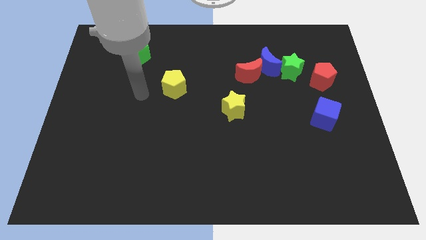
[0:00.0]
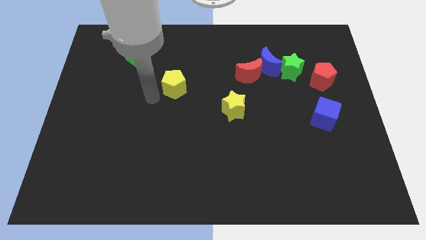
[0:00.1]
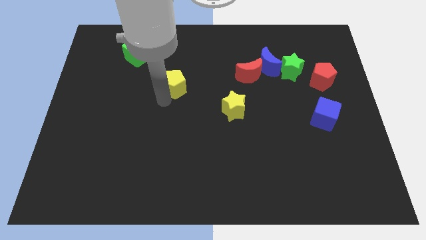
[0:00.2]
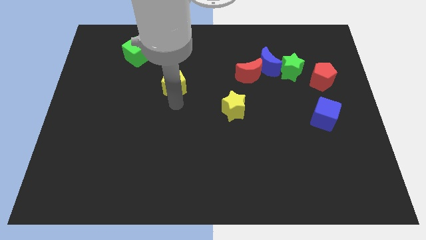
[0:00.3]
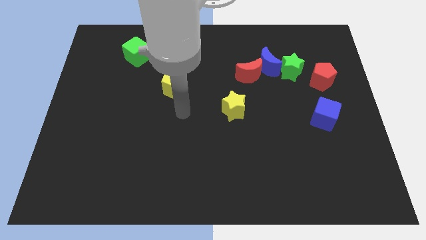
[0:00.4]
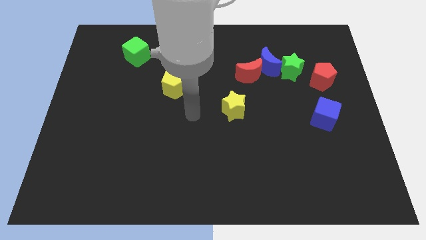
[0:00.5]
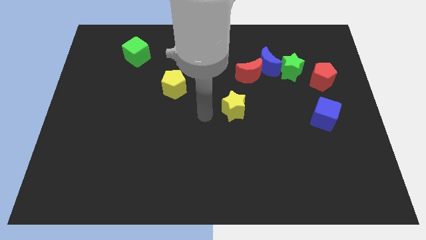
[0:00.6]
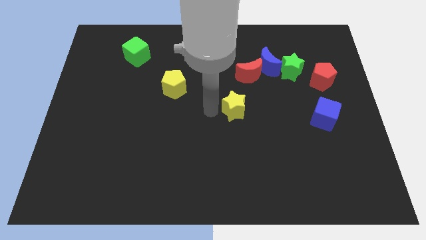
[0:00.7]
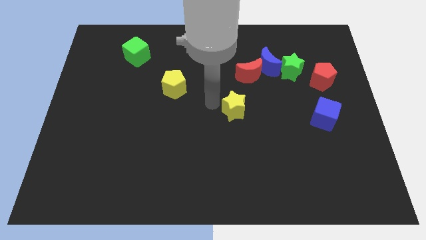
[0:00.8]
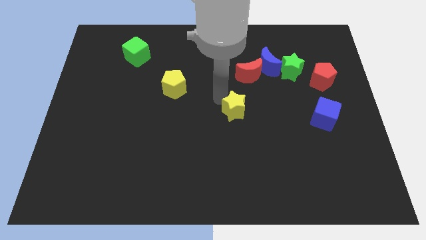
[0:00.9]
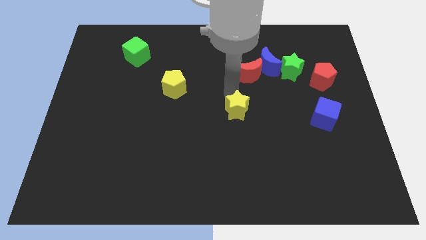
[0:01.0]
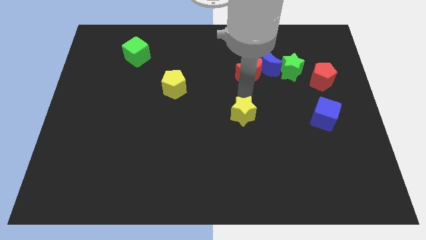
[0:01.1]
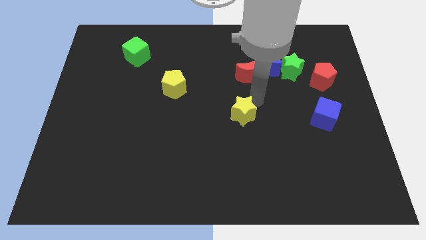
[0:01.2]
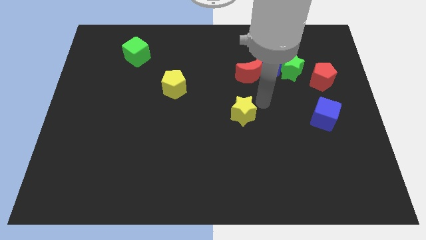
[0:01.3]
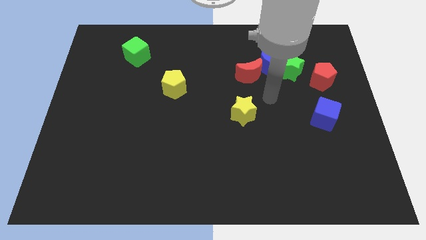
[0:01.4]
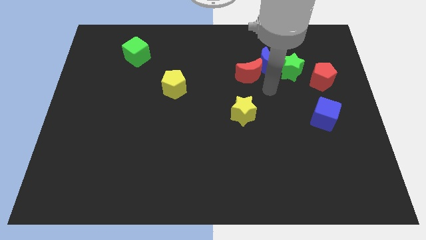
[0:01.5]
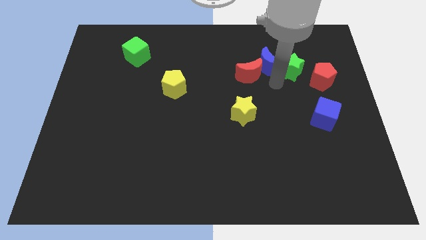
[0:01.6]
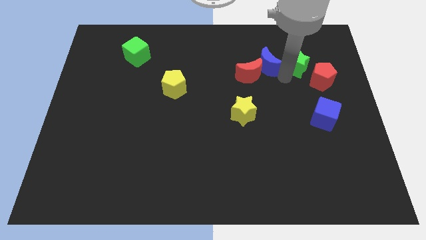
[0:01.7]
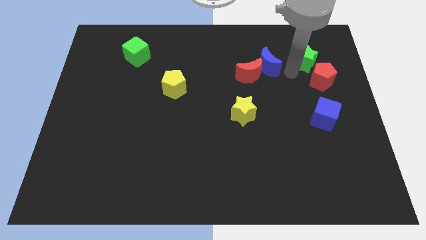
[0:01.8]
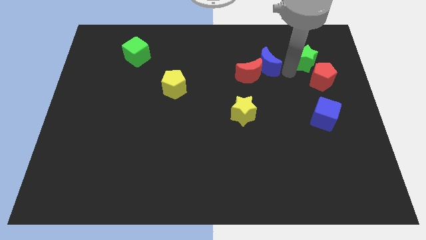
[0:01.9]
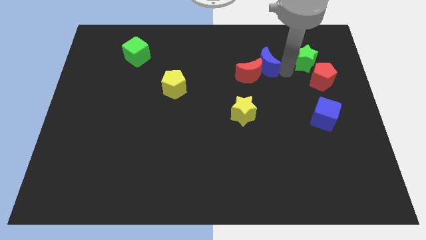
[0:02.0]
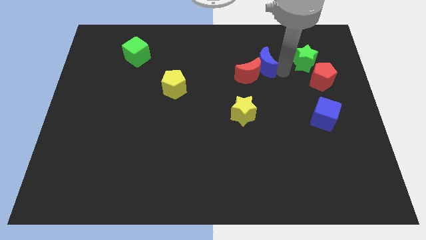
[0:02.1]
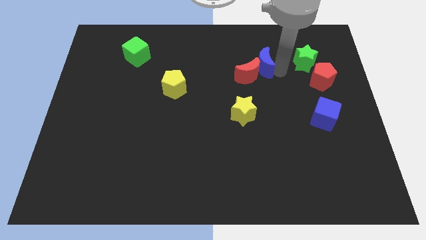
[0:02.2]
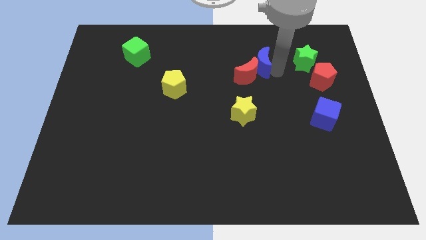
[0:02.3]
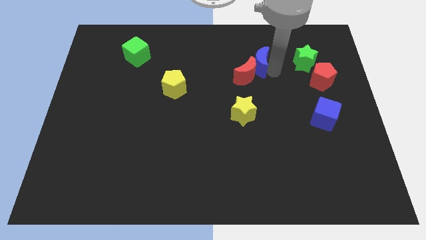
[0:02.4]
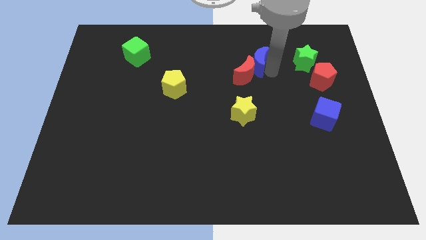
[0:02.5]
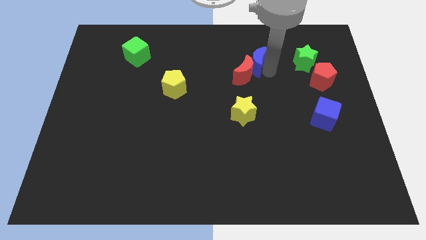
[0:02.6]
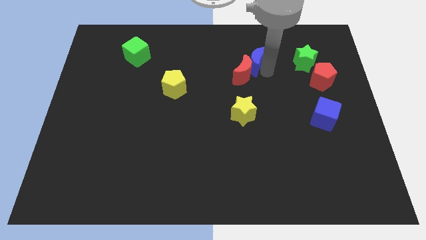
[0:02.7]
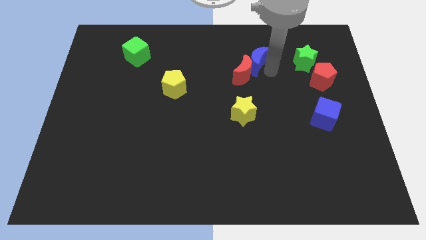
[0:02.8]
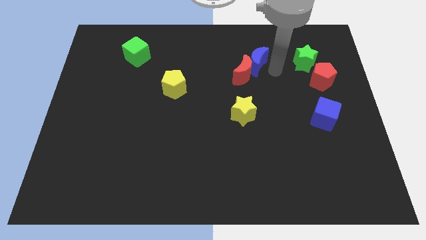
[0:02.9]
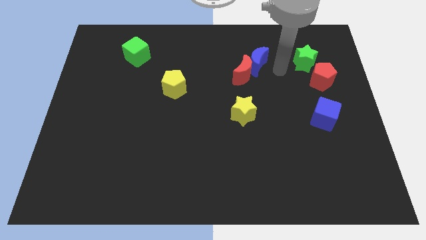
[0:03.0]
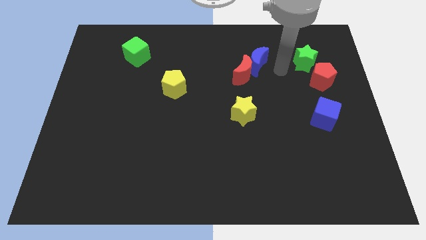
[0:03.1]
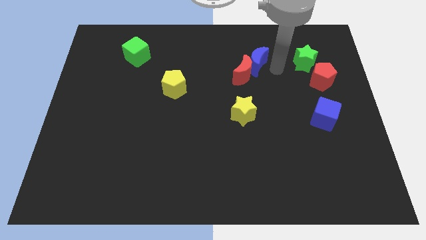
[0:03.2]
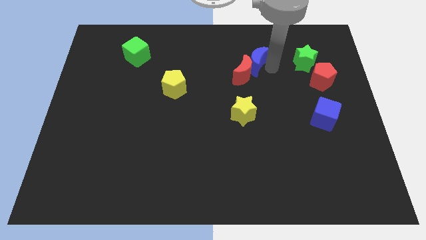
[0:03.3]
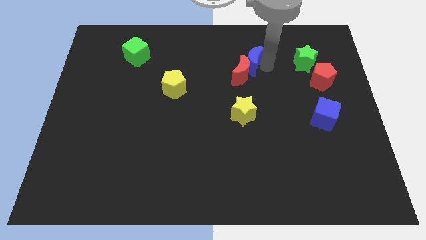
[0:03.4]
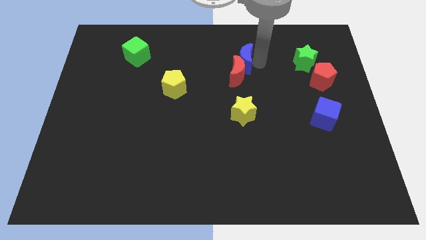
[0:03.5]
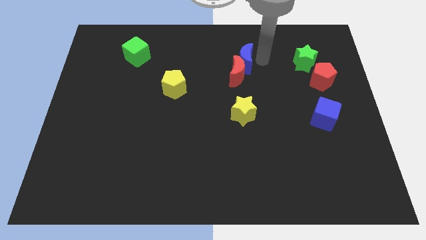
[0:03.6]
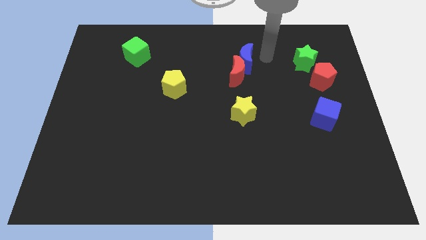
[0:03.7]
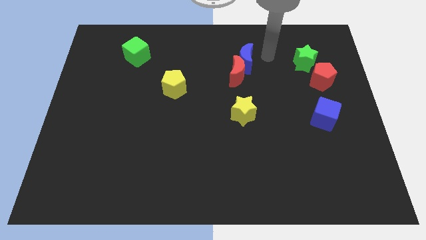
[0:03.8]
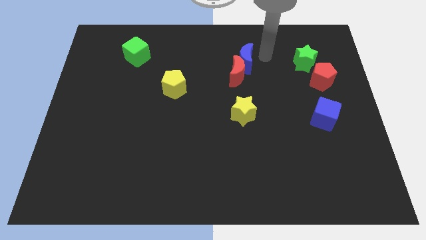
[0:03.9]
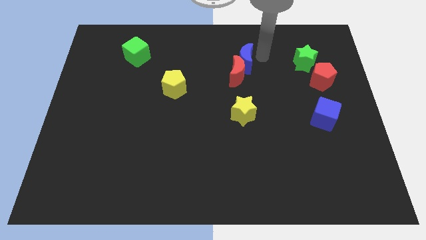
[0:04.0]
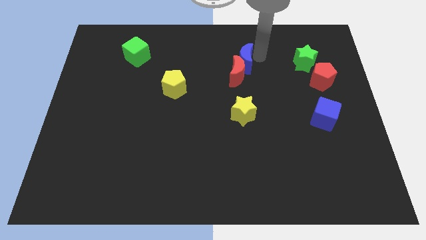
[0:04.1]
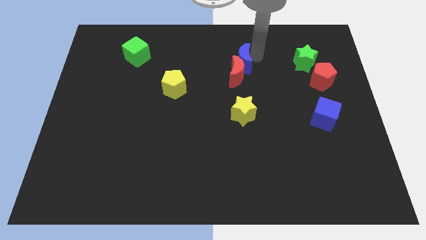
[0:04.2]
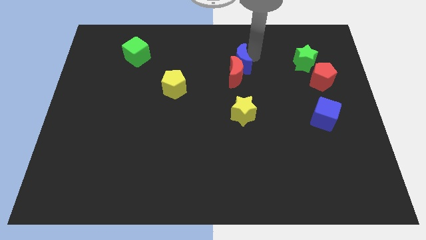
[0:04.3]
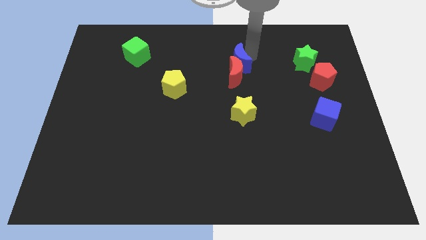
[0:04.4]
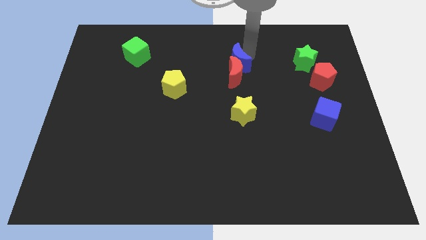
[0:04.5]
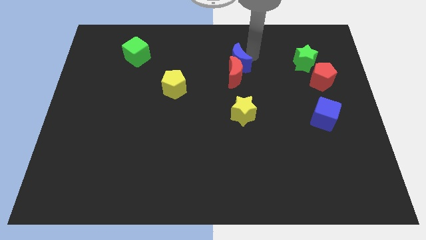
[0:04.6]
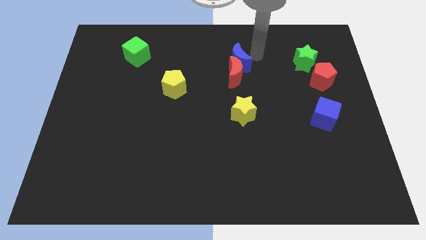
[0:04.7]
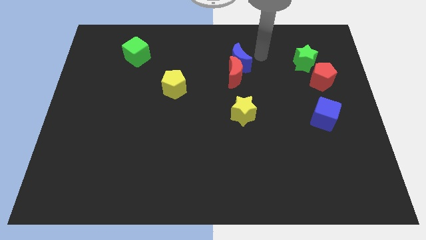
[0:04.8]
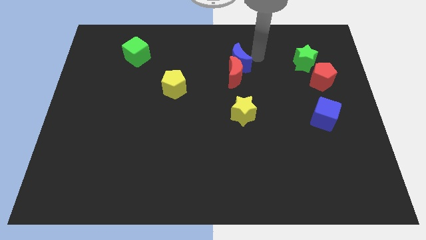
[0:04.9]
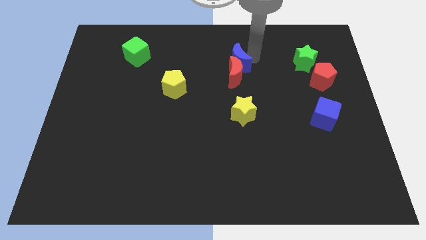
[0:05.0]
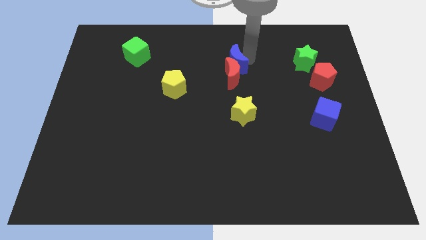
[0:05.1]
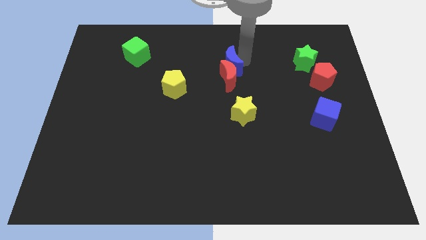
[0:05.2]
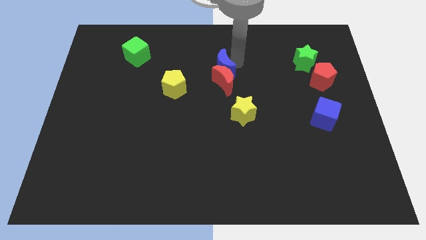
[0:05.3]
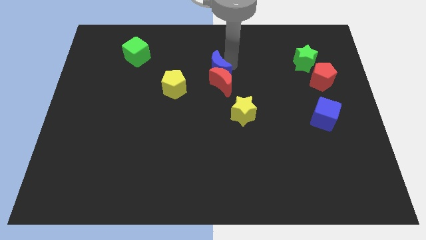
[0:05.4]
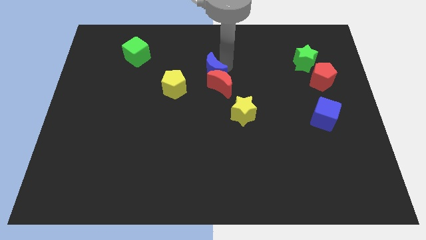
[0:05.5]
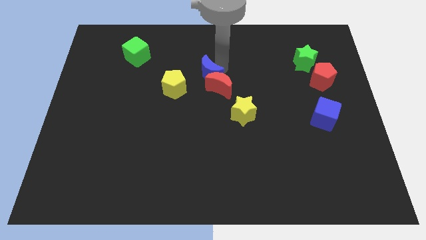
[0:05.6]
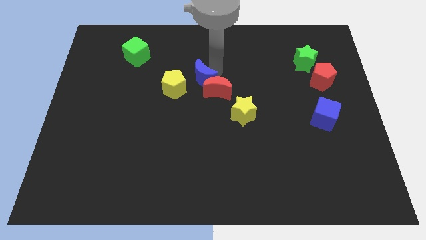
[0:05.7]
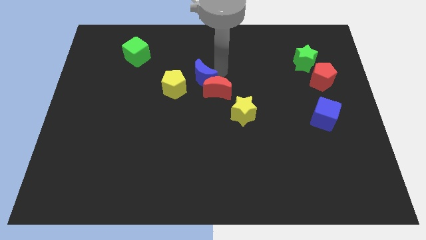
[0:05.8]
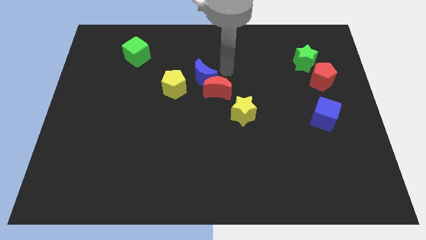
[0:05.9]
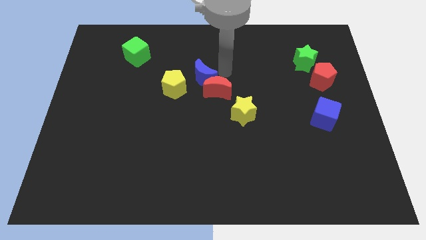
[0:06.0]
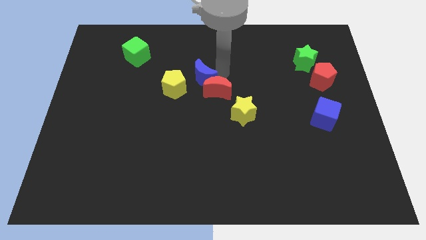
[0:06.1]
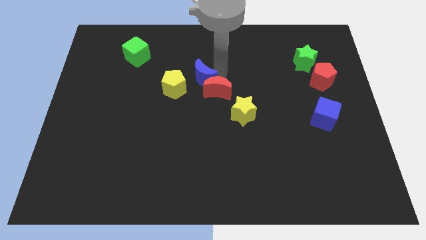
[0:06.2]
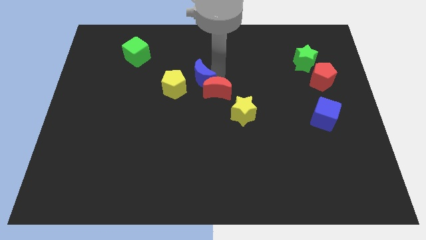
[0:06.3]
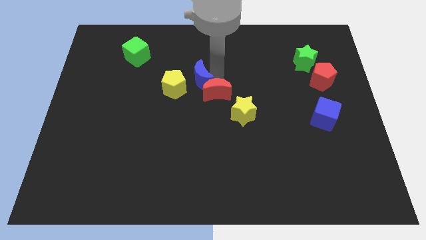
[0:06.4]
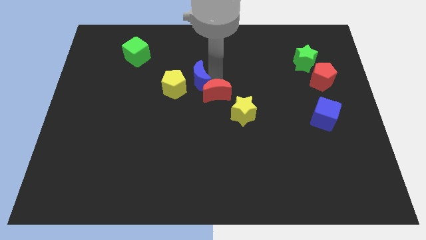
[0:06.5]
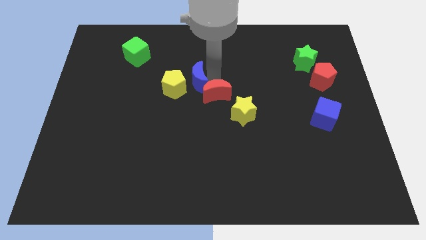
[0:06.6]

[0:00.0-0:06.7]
slide the blue moon to the yellow pentagon

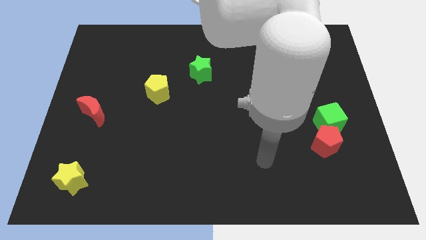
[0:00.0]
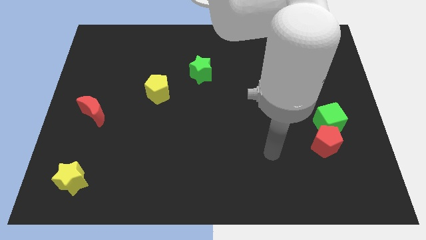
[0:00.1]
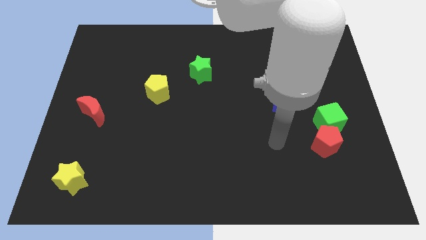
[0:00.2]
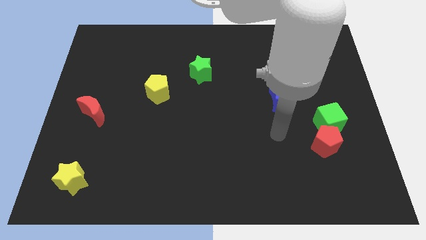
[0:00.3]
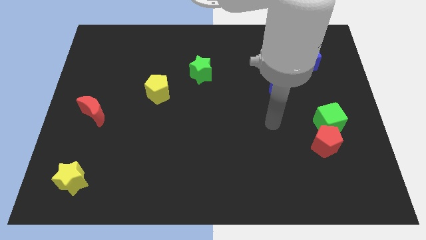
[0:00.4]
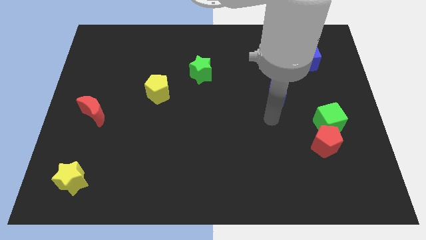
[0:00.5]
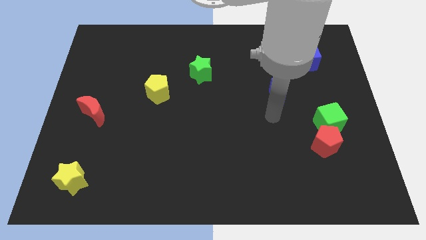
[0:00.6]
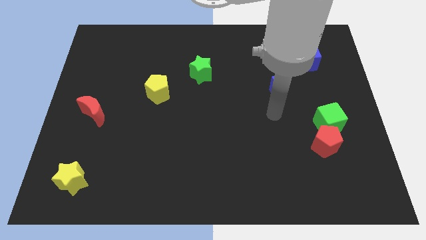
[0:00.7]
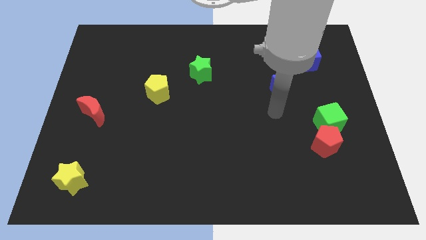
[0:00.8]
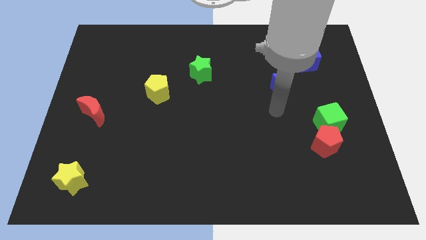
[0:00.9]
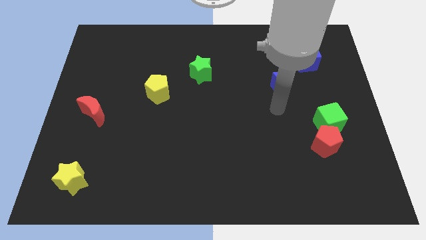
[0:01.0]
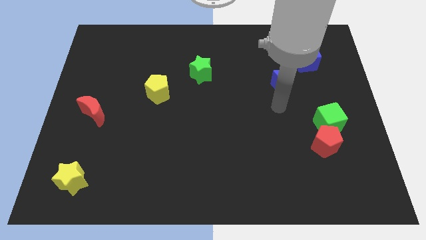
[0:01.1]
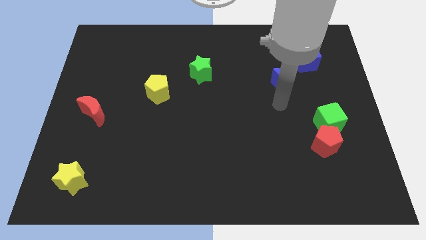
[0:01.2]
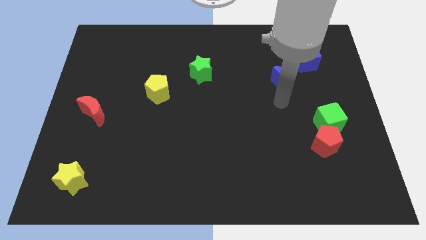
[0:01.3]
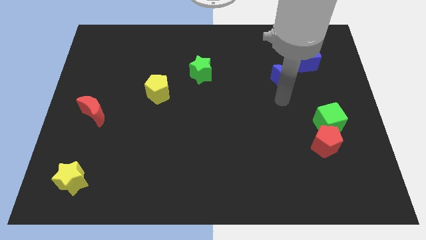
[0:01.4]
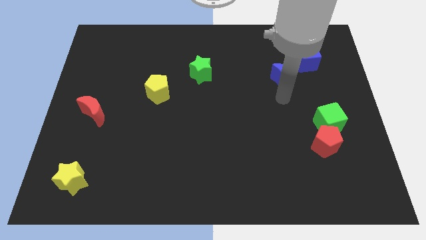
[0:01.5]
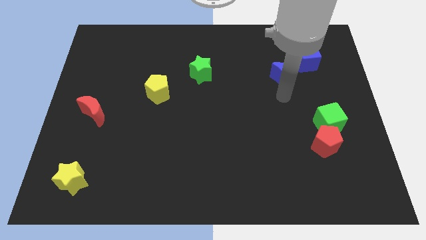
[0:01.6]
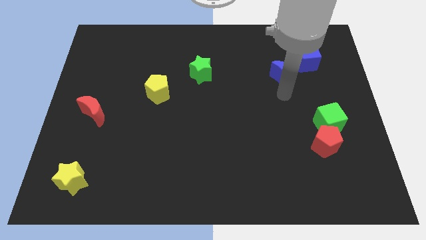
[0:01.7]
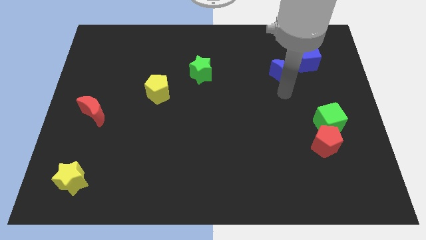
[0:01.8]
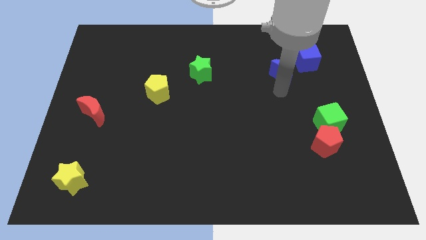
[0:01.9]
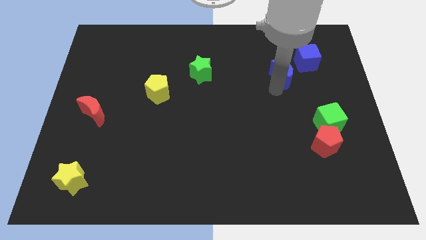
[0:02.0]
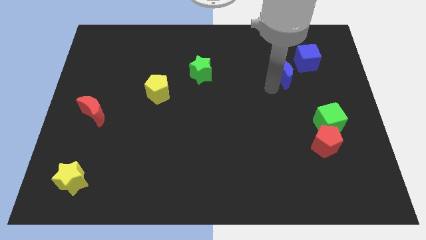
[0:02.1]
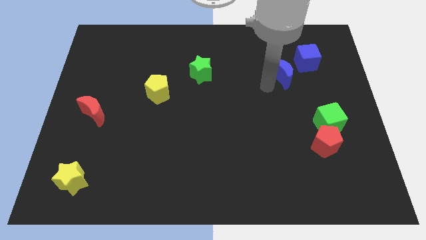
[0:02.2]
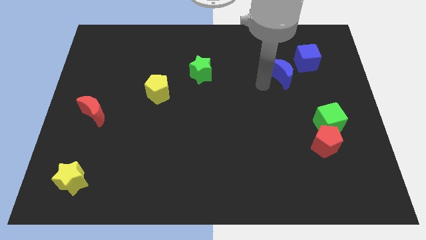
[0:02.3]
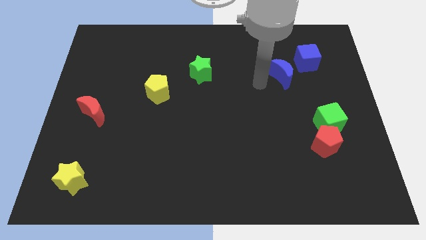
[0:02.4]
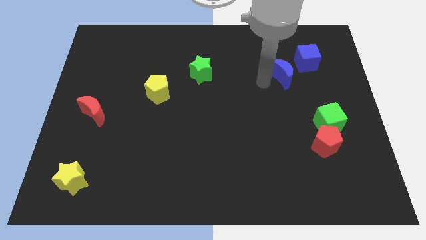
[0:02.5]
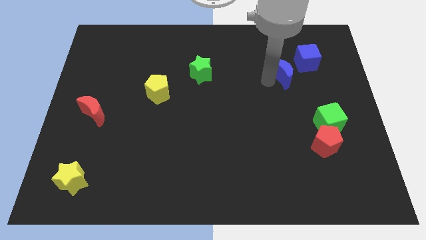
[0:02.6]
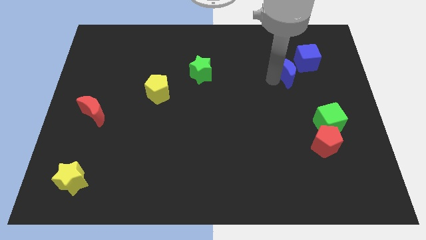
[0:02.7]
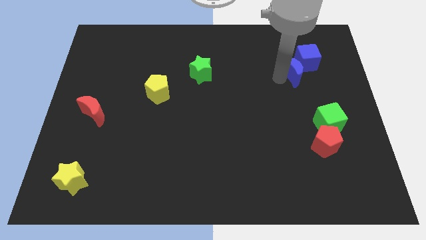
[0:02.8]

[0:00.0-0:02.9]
slide the blue moon close to the blue cube
